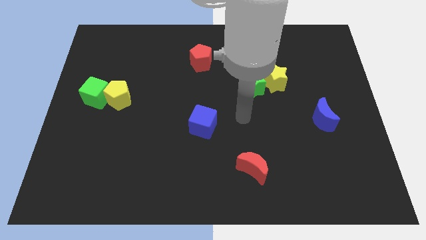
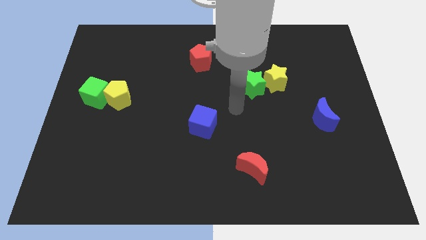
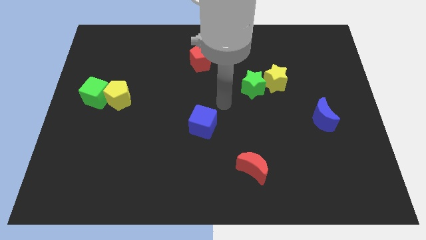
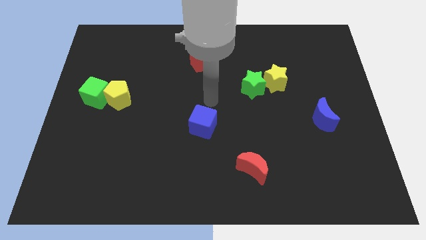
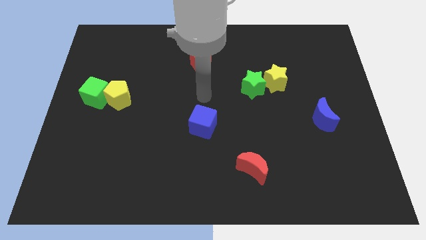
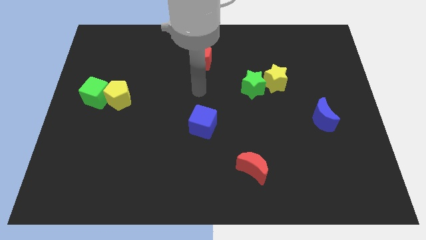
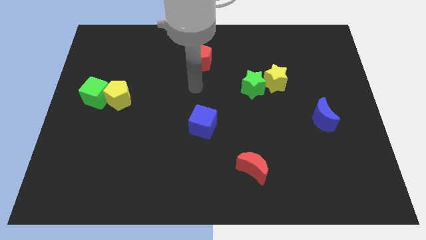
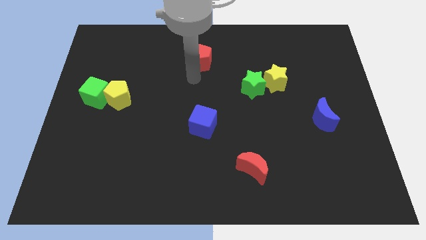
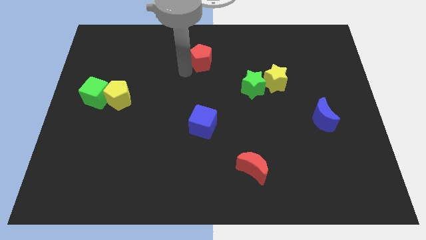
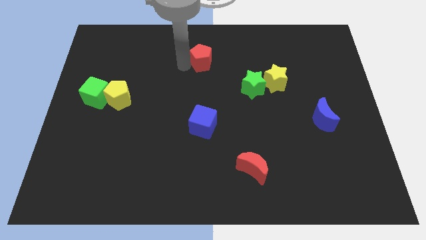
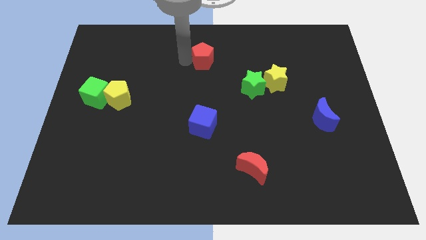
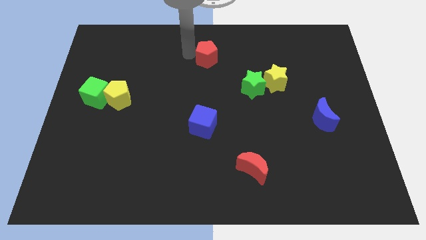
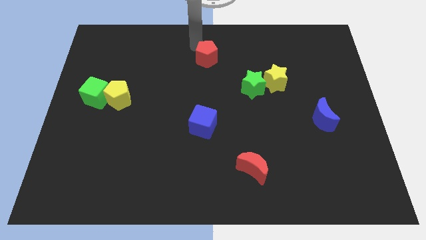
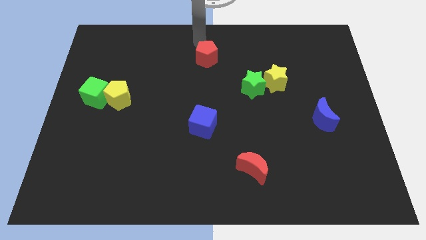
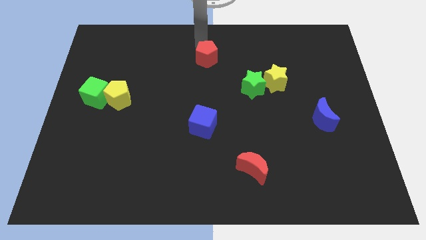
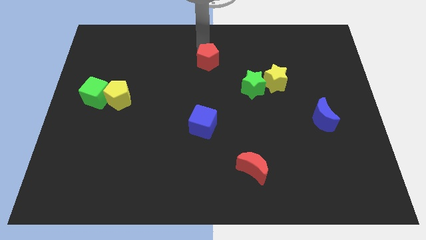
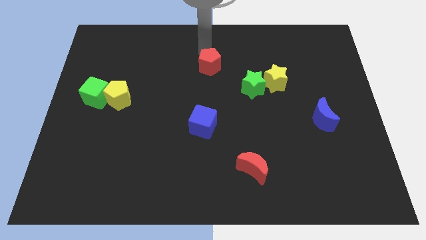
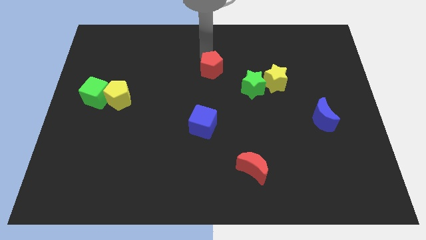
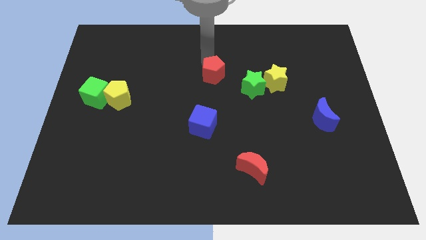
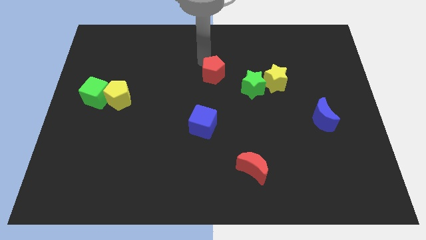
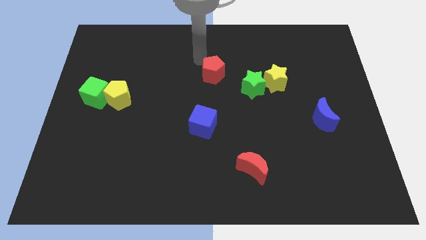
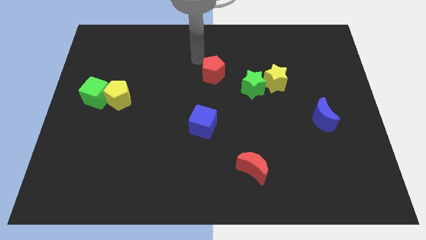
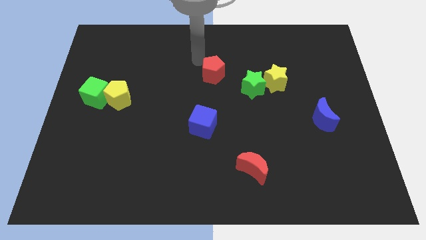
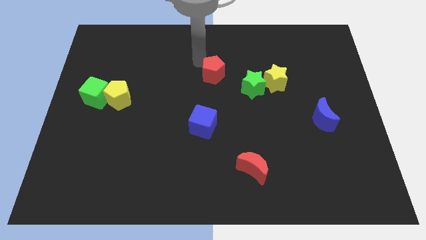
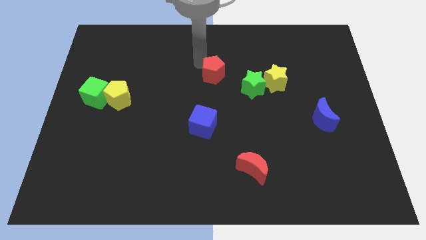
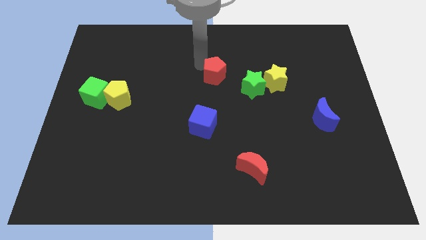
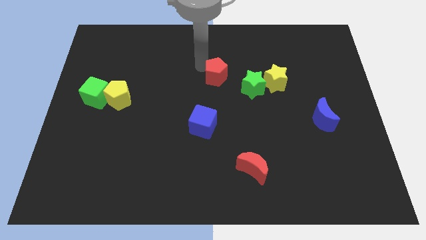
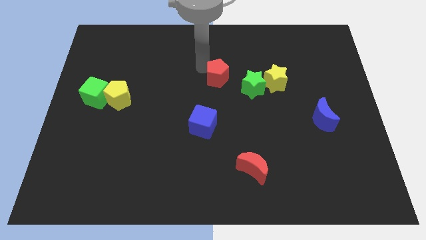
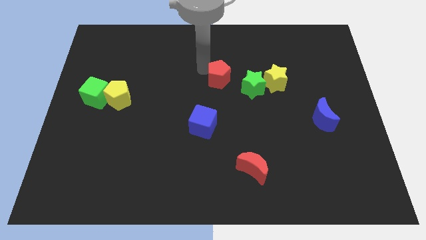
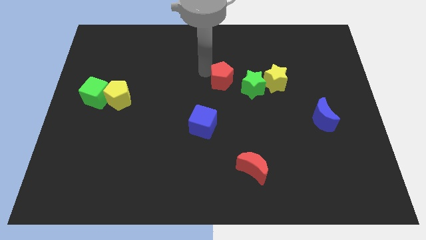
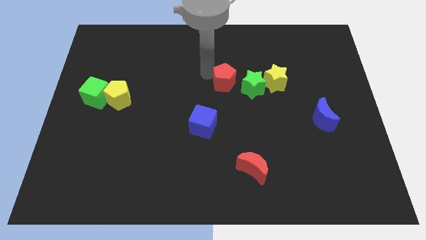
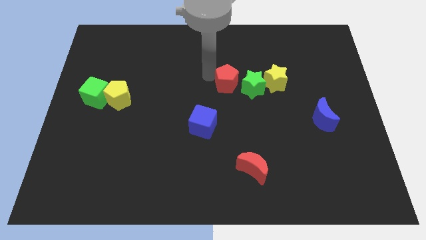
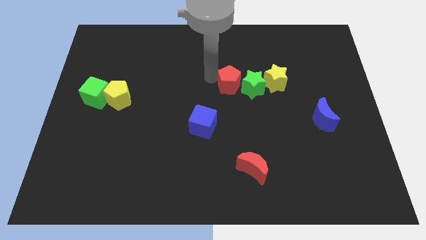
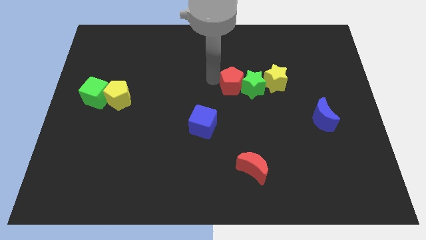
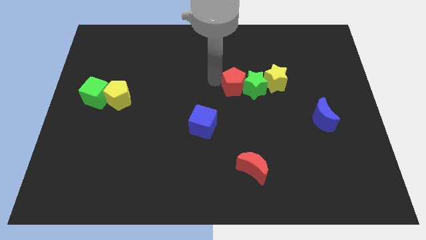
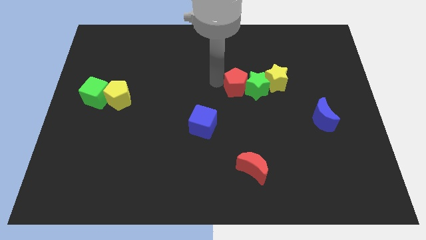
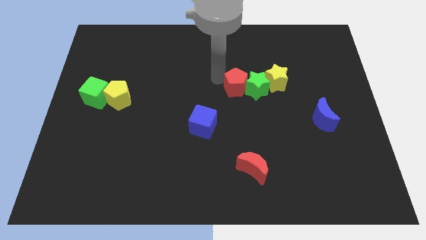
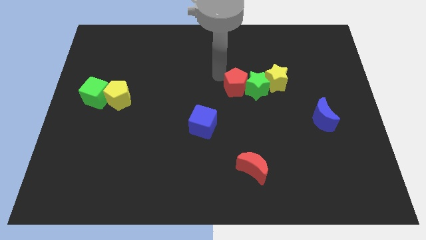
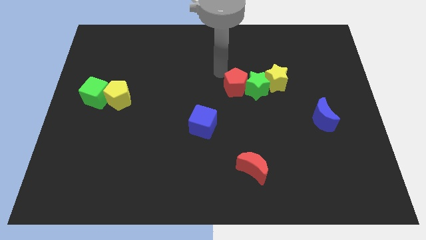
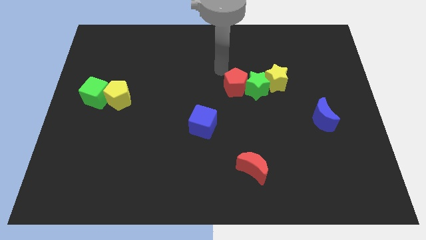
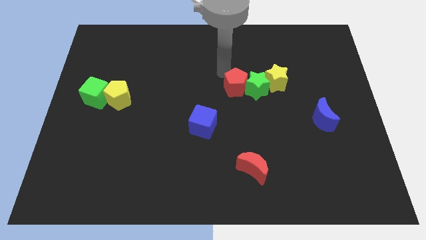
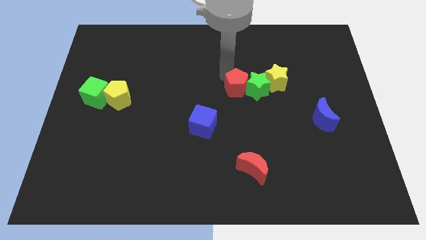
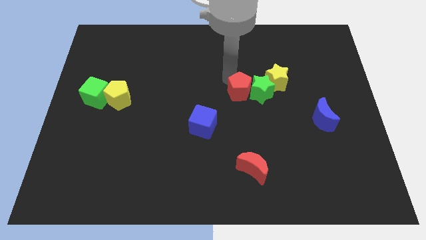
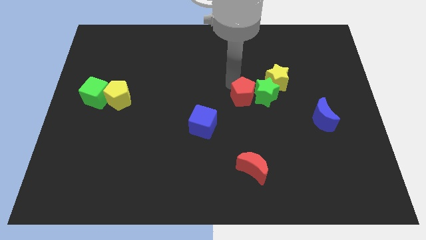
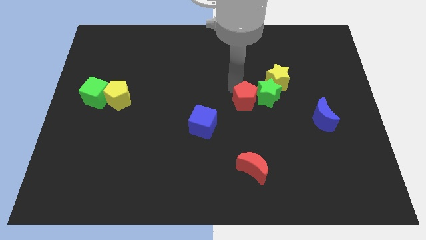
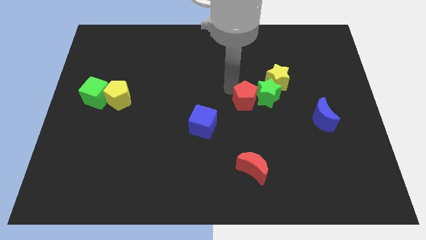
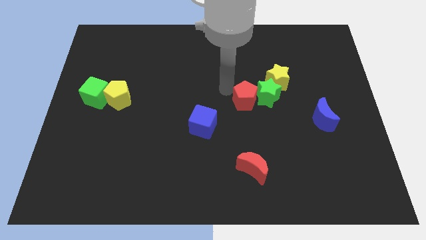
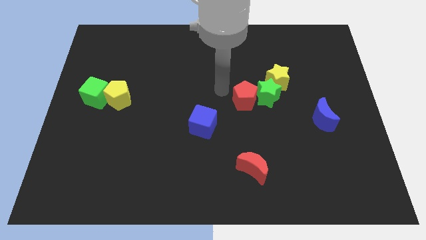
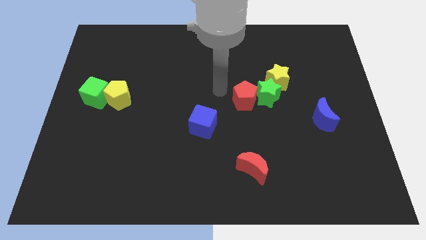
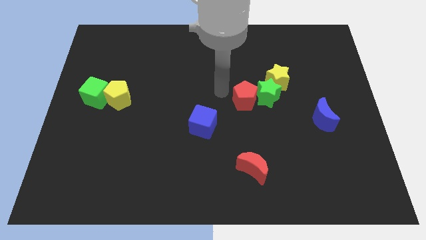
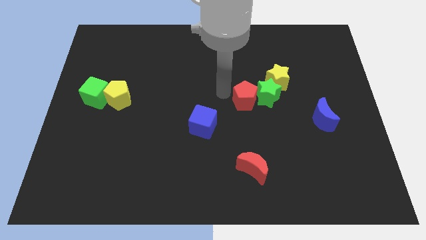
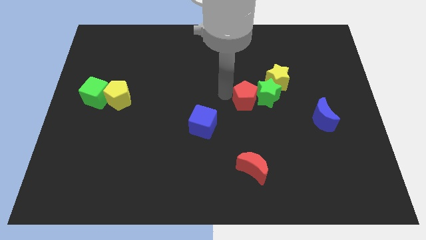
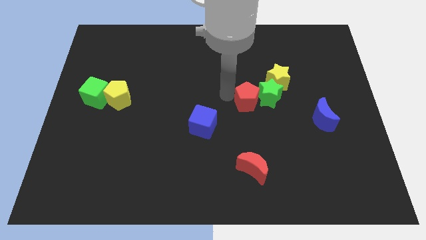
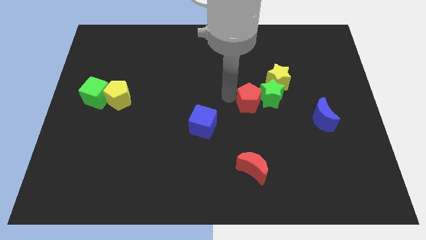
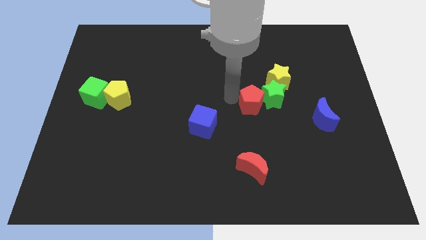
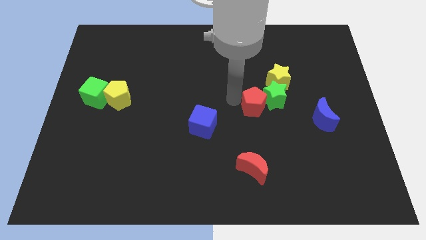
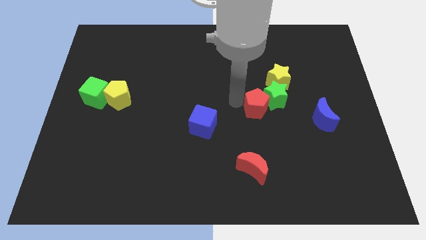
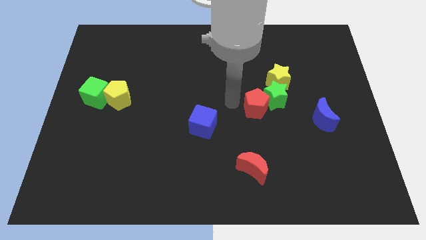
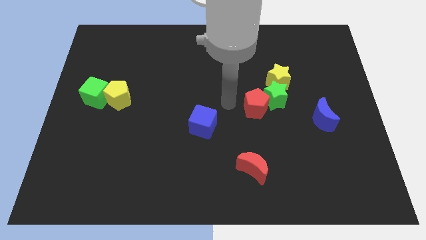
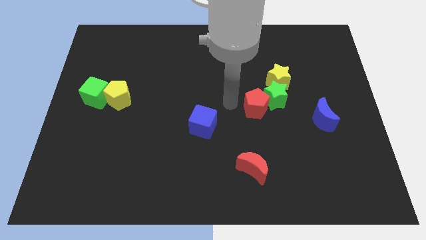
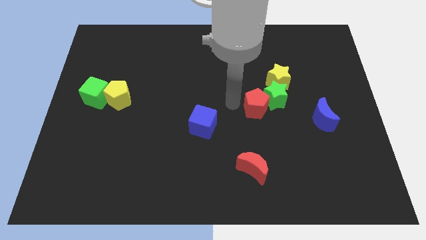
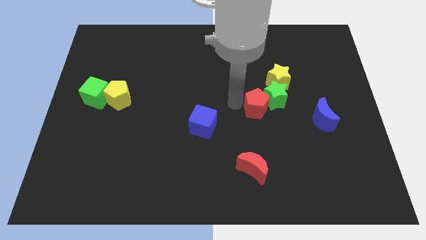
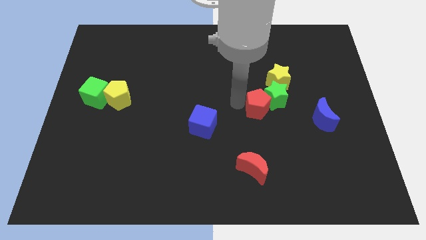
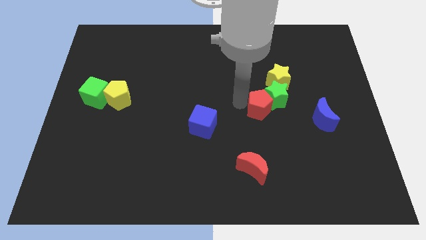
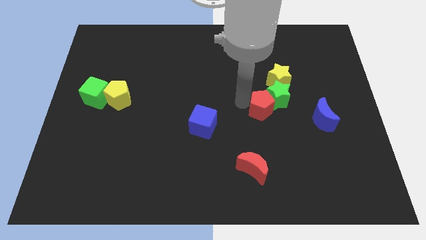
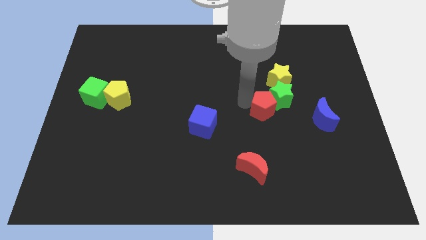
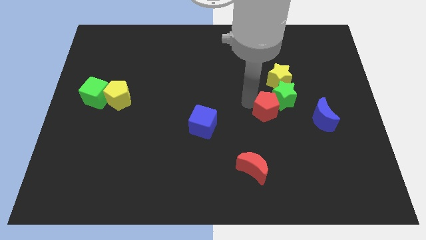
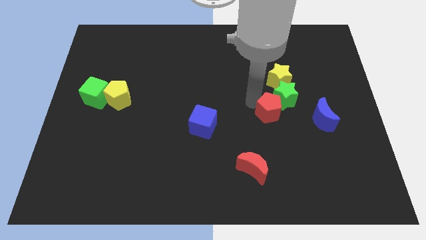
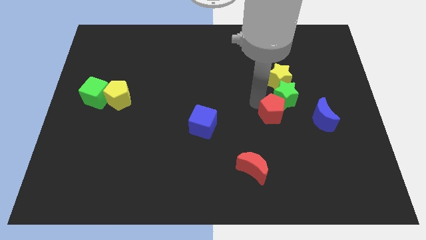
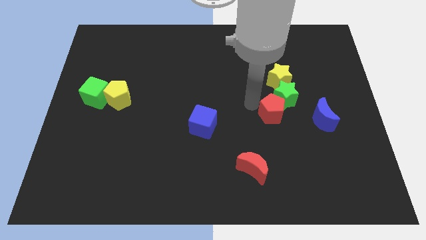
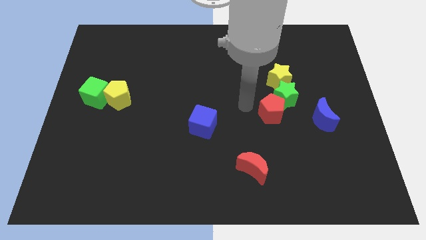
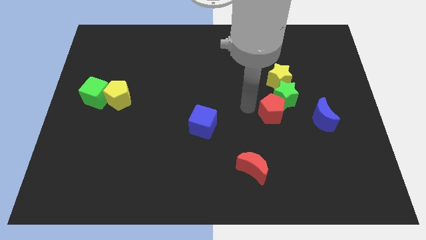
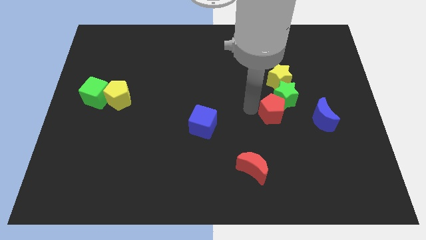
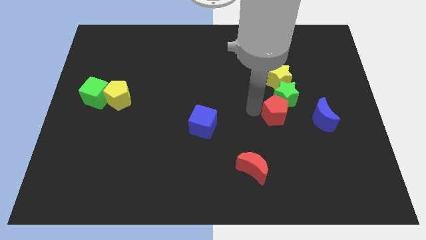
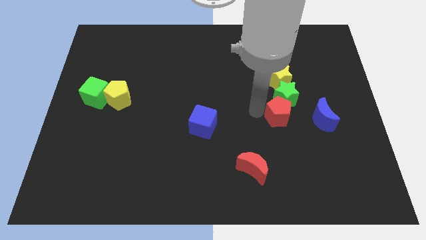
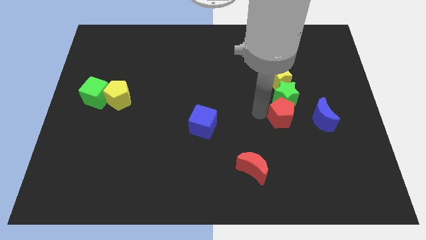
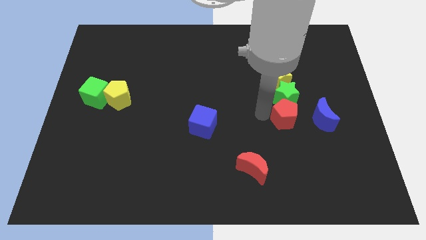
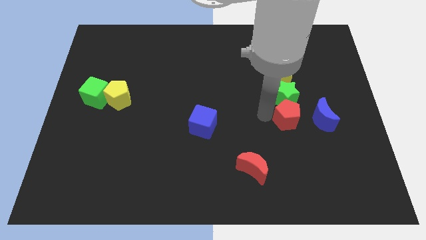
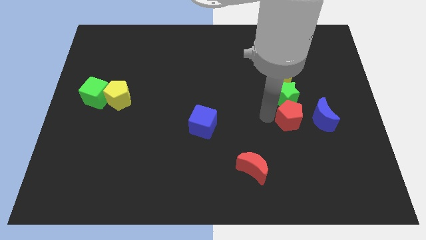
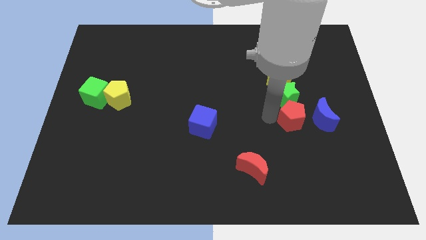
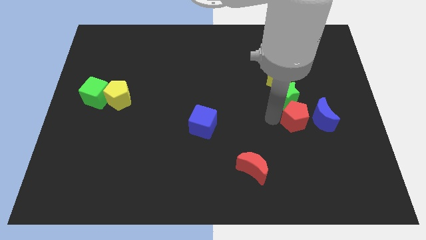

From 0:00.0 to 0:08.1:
slide the red pentagon to the blue moon
